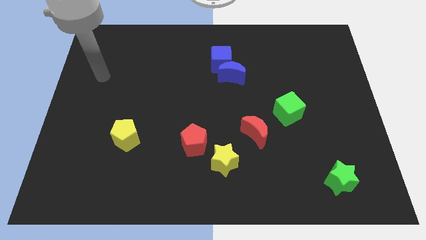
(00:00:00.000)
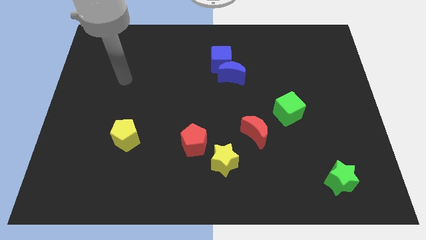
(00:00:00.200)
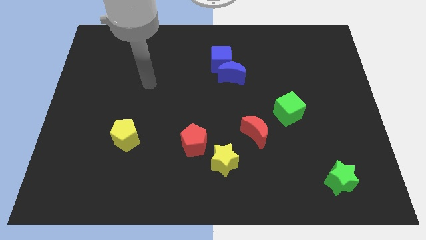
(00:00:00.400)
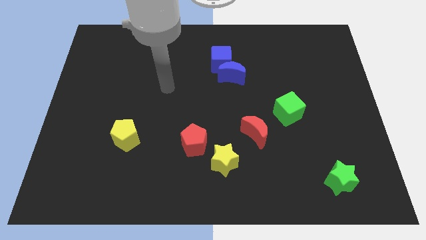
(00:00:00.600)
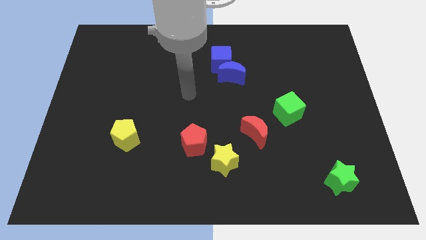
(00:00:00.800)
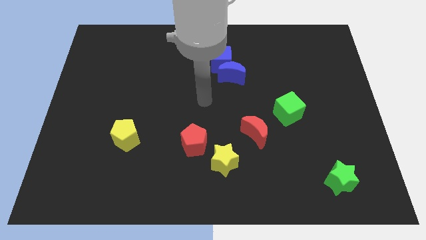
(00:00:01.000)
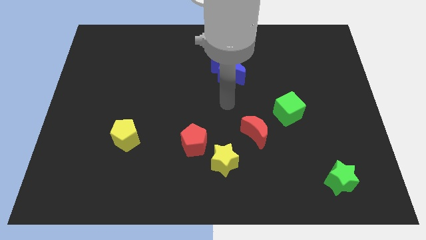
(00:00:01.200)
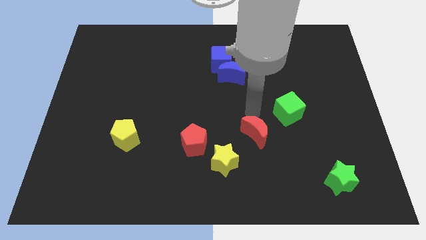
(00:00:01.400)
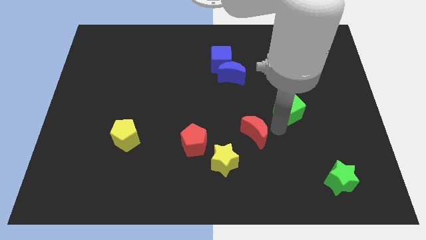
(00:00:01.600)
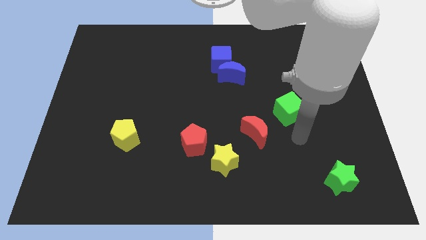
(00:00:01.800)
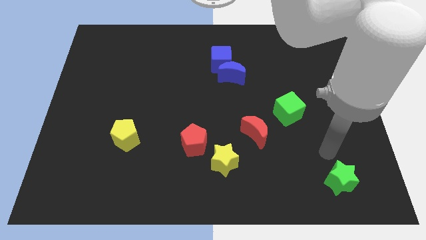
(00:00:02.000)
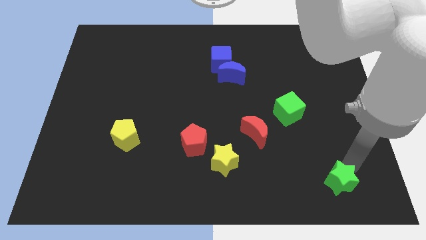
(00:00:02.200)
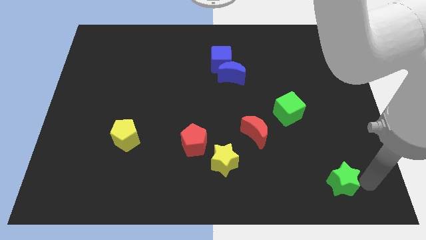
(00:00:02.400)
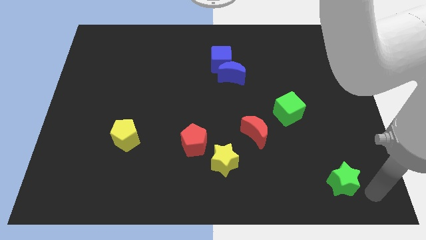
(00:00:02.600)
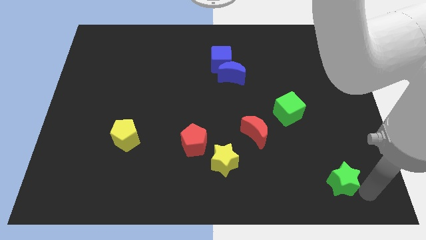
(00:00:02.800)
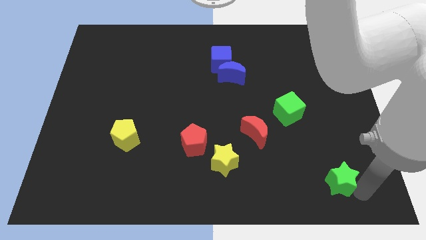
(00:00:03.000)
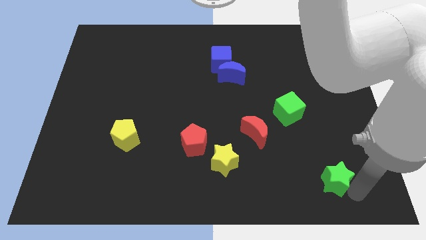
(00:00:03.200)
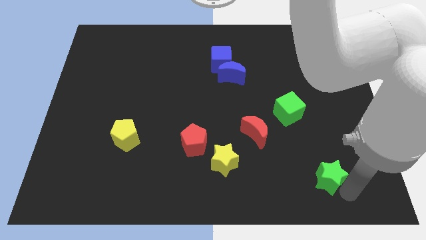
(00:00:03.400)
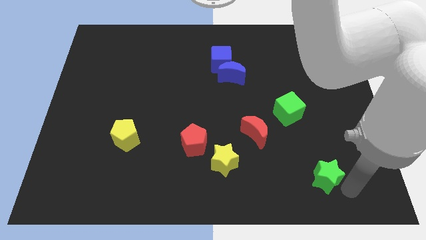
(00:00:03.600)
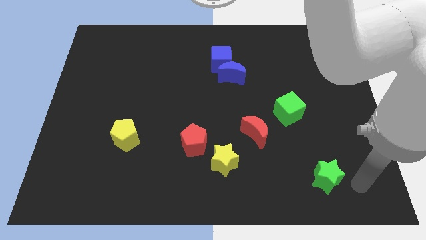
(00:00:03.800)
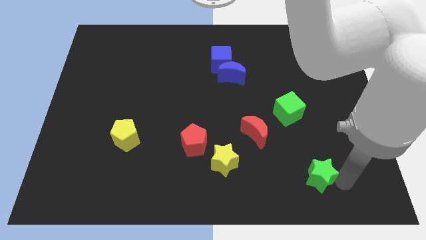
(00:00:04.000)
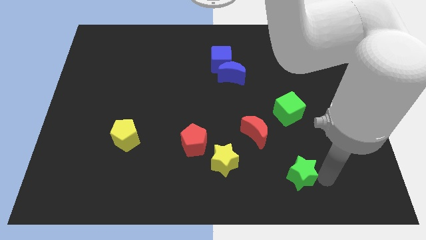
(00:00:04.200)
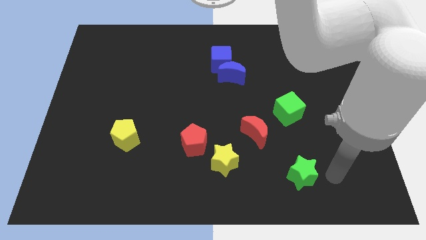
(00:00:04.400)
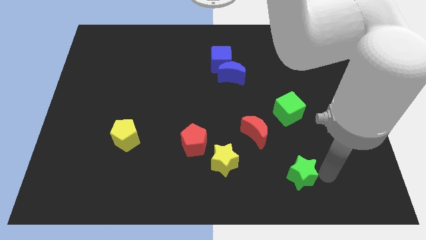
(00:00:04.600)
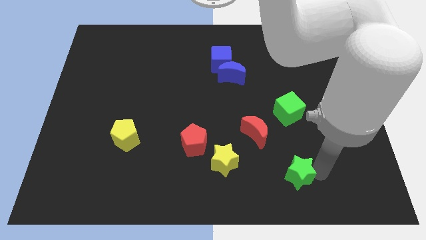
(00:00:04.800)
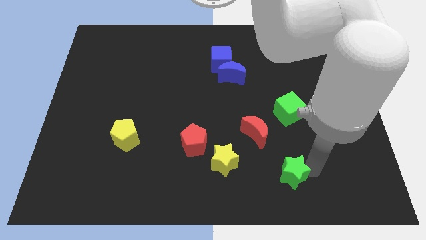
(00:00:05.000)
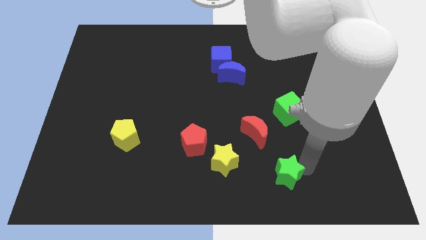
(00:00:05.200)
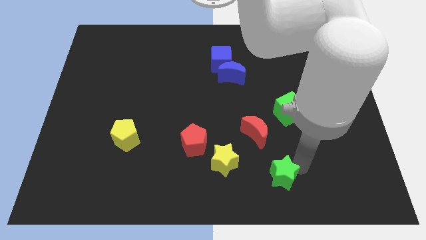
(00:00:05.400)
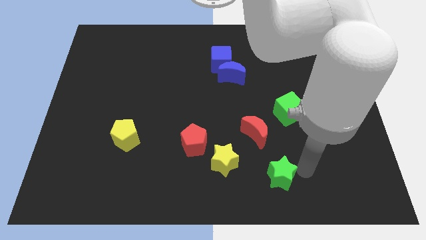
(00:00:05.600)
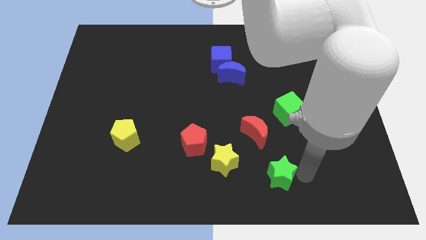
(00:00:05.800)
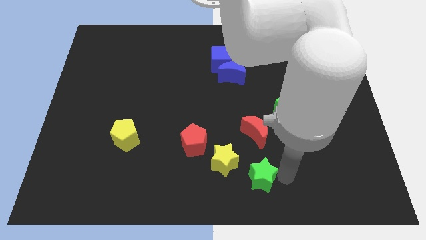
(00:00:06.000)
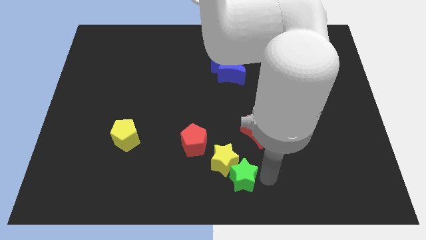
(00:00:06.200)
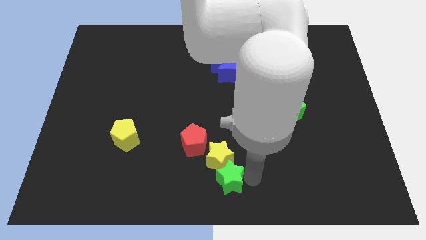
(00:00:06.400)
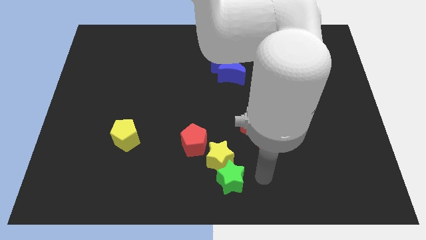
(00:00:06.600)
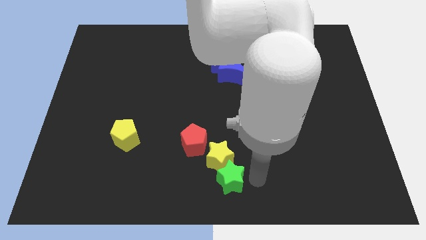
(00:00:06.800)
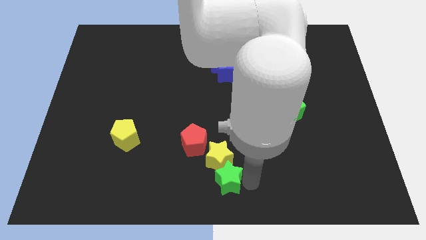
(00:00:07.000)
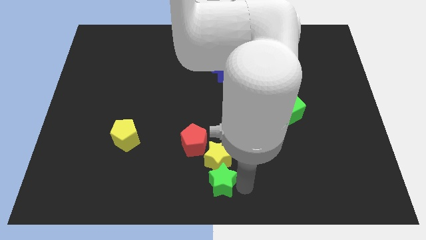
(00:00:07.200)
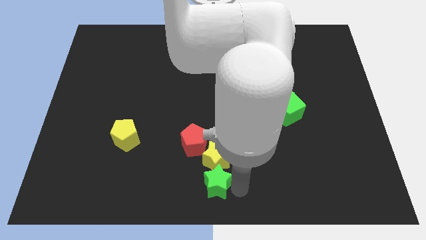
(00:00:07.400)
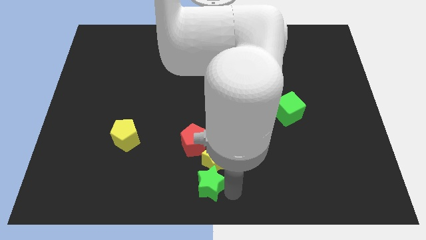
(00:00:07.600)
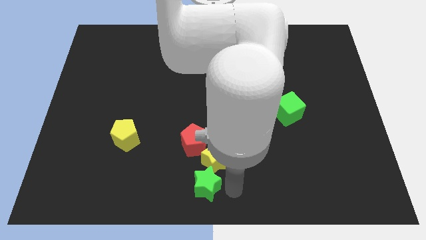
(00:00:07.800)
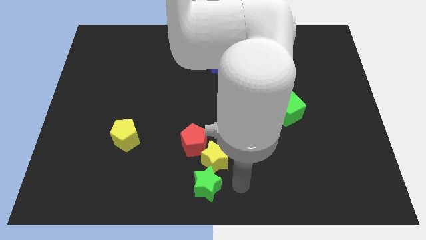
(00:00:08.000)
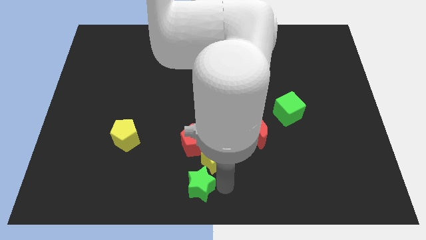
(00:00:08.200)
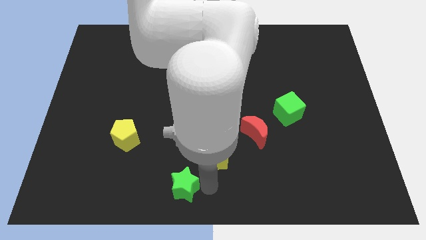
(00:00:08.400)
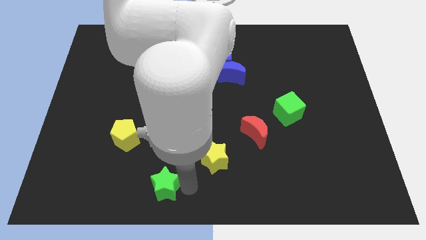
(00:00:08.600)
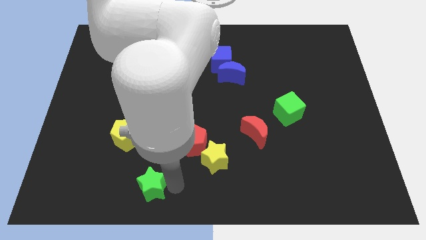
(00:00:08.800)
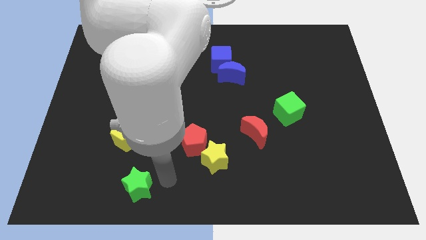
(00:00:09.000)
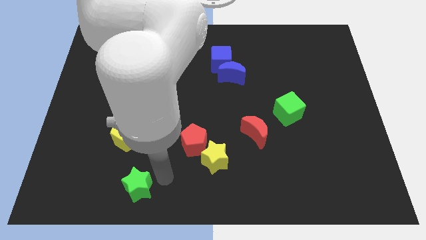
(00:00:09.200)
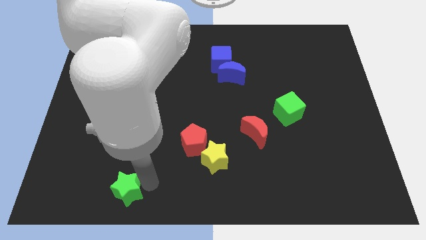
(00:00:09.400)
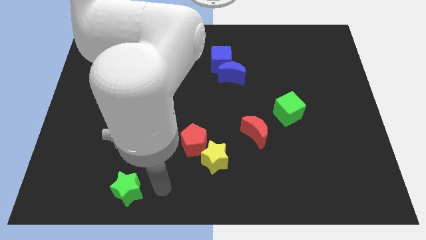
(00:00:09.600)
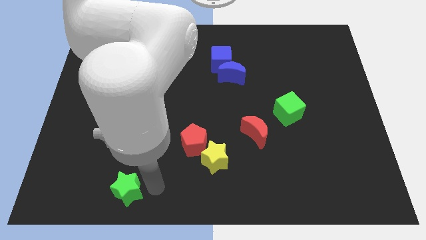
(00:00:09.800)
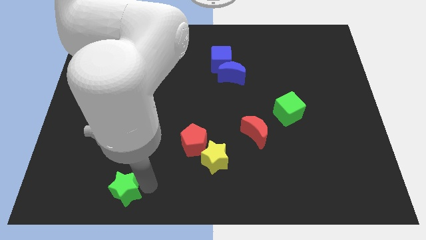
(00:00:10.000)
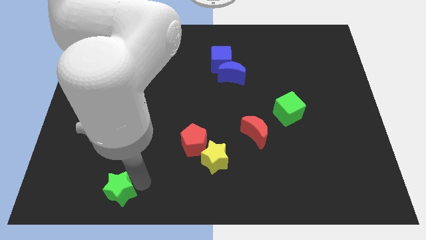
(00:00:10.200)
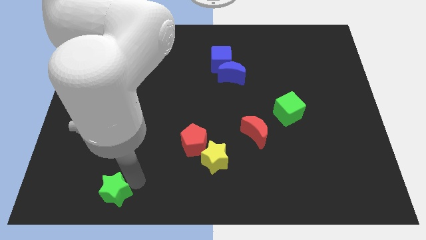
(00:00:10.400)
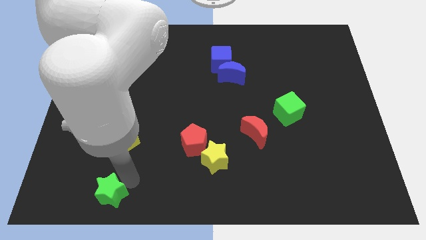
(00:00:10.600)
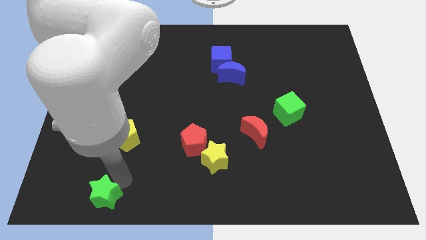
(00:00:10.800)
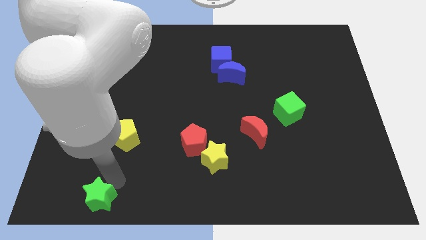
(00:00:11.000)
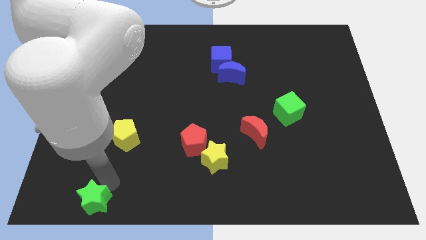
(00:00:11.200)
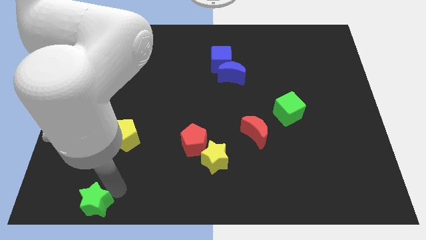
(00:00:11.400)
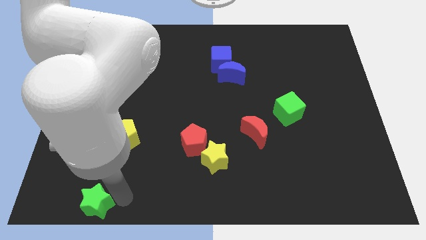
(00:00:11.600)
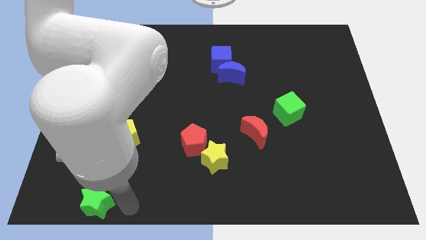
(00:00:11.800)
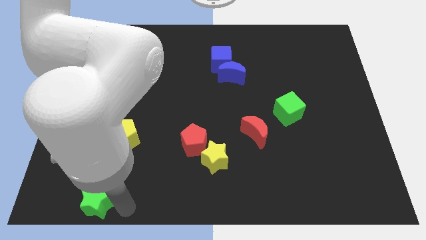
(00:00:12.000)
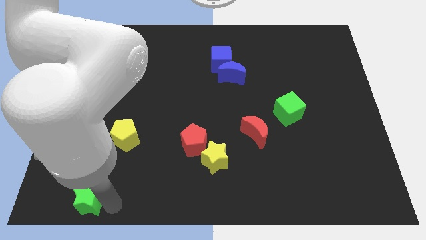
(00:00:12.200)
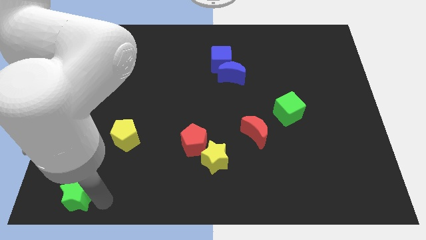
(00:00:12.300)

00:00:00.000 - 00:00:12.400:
slide the green star to the bottom left
